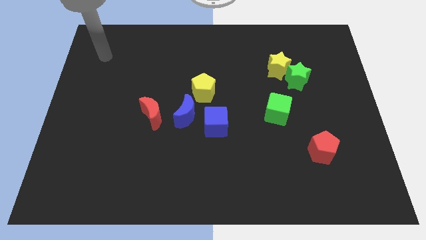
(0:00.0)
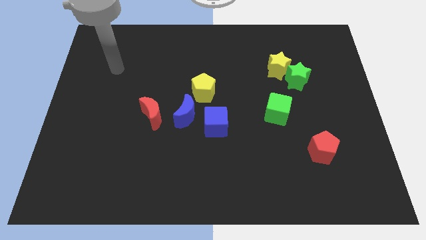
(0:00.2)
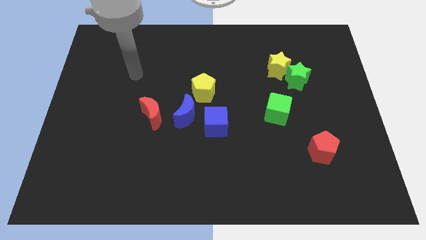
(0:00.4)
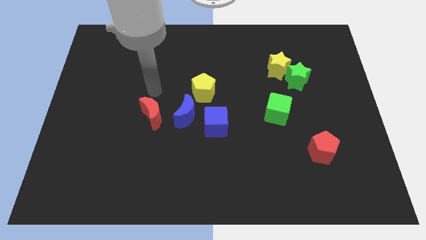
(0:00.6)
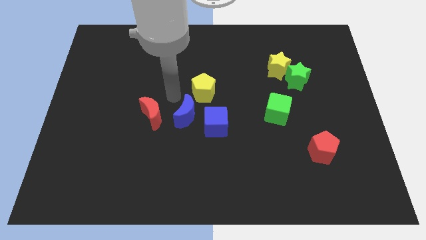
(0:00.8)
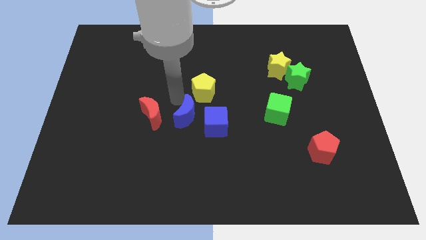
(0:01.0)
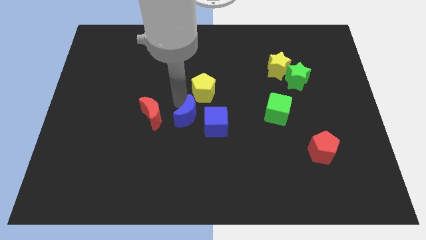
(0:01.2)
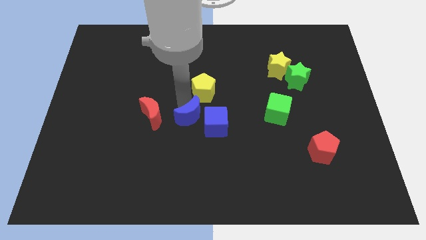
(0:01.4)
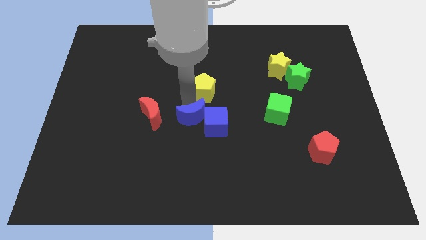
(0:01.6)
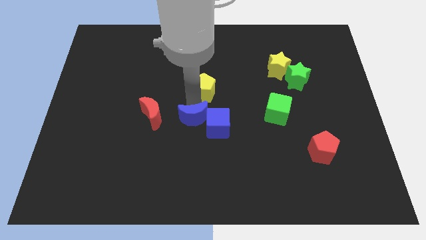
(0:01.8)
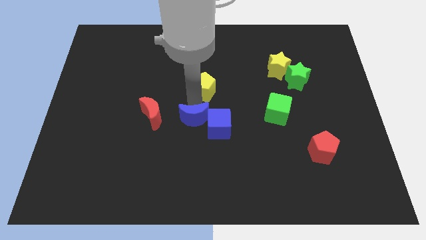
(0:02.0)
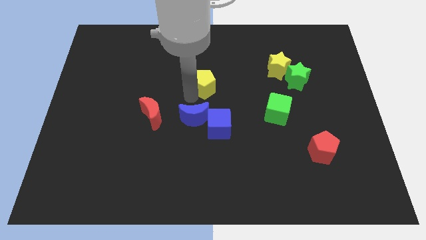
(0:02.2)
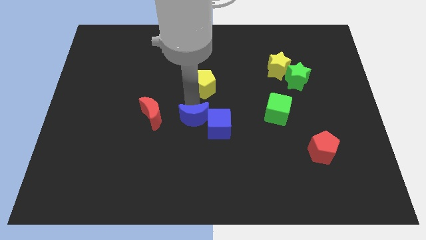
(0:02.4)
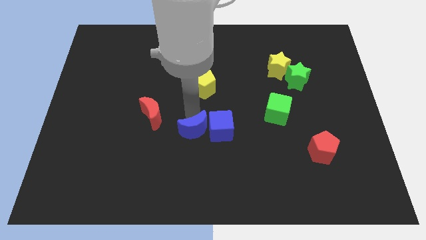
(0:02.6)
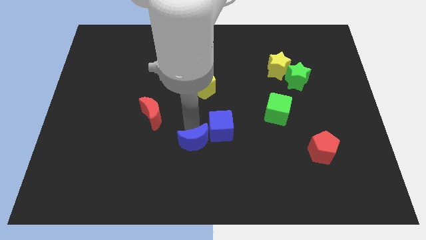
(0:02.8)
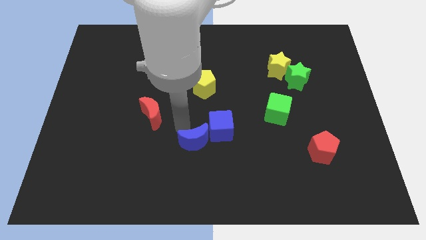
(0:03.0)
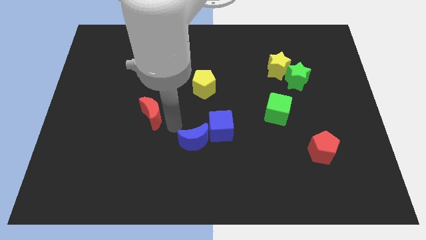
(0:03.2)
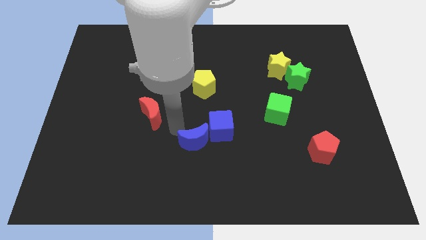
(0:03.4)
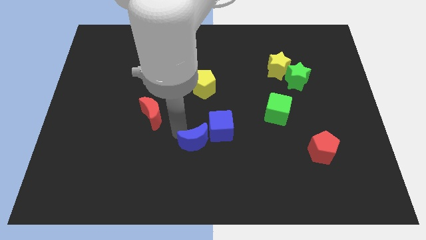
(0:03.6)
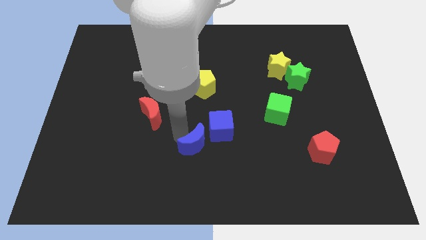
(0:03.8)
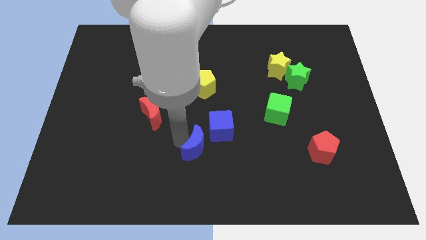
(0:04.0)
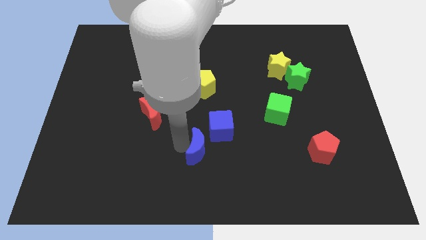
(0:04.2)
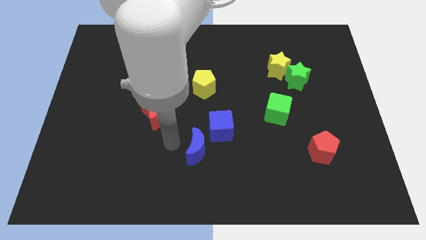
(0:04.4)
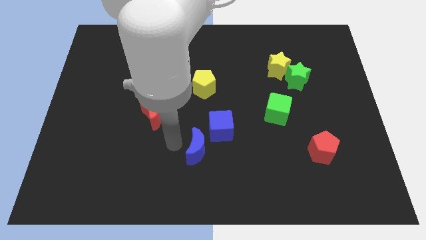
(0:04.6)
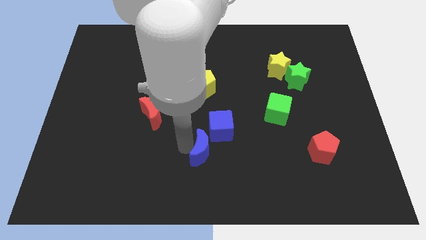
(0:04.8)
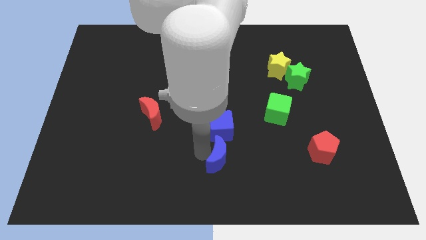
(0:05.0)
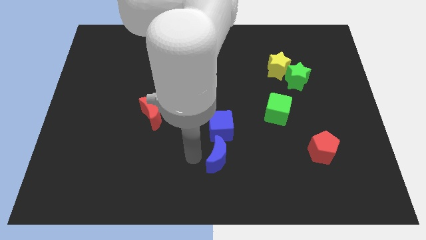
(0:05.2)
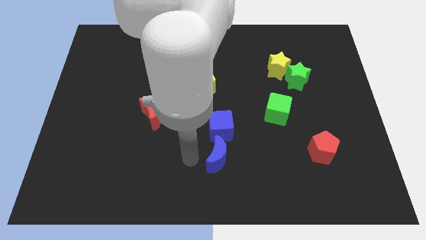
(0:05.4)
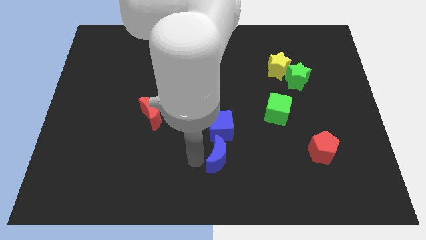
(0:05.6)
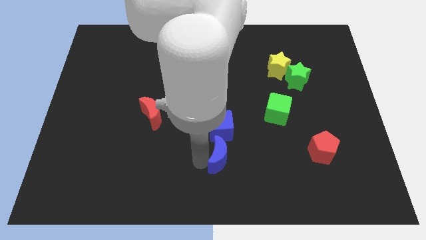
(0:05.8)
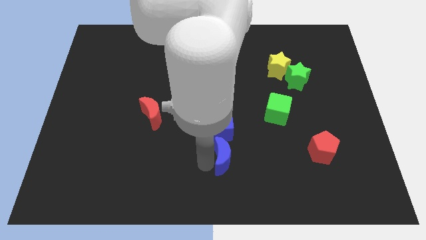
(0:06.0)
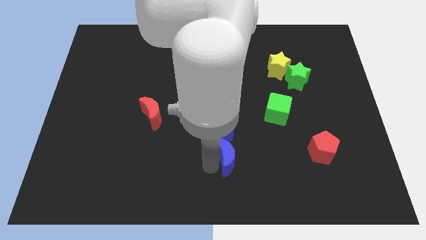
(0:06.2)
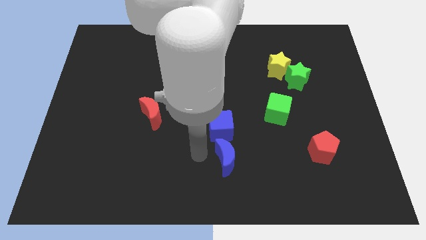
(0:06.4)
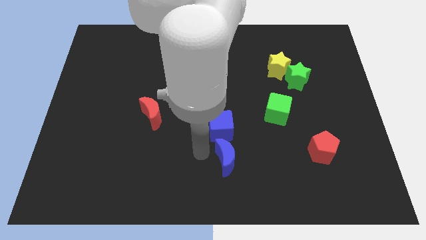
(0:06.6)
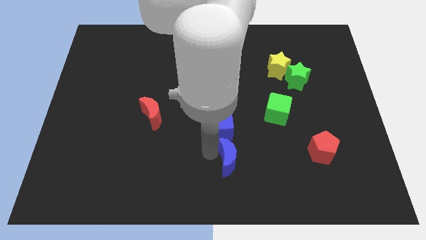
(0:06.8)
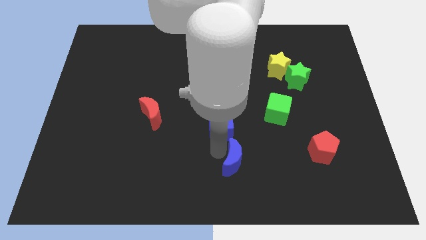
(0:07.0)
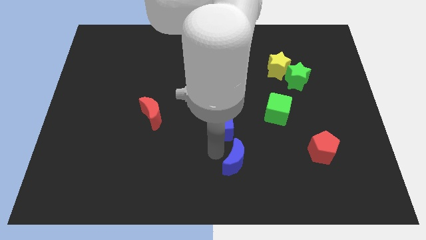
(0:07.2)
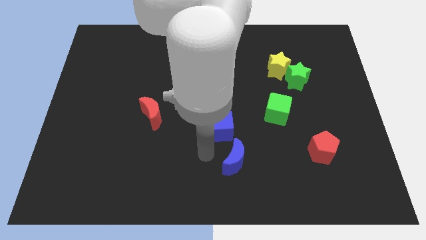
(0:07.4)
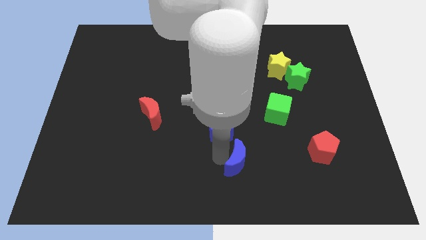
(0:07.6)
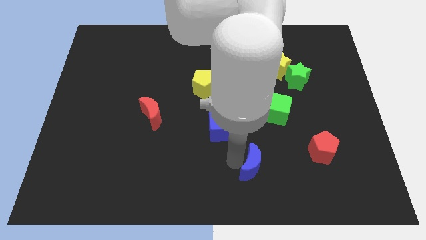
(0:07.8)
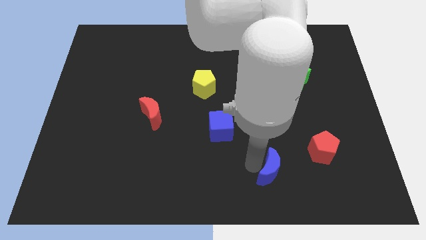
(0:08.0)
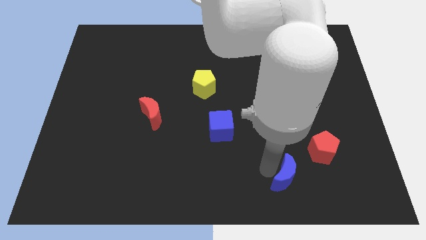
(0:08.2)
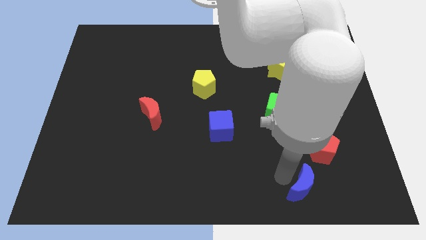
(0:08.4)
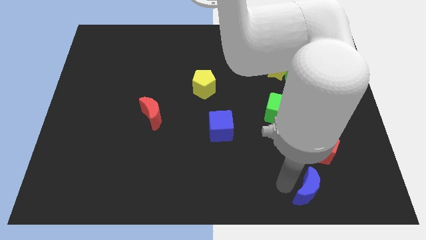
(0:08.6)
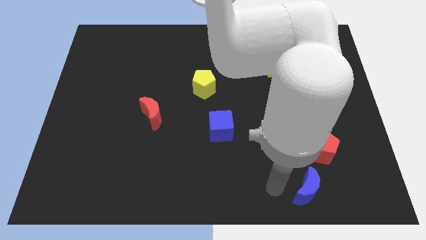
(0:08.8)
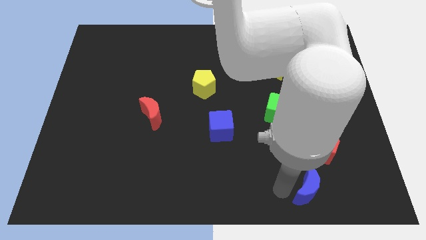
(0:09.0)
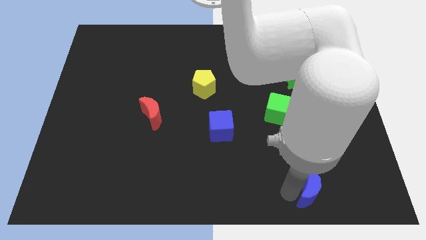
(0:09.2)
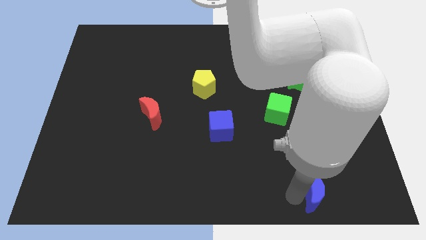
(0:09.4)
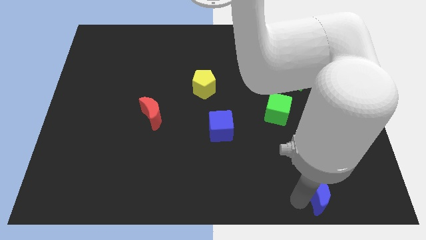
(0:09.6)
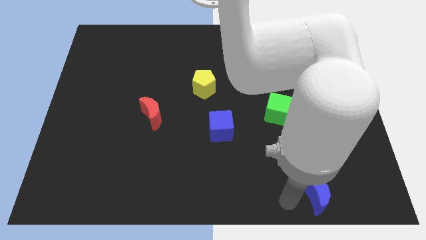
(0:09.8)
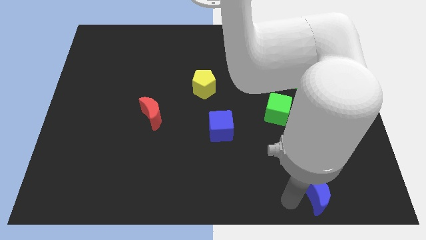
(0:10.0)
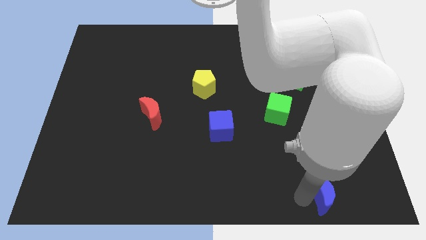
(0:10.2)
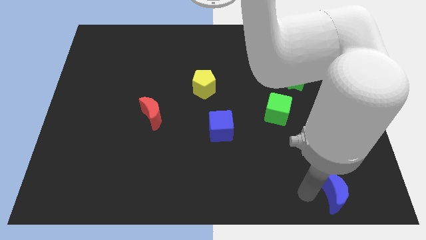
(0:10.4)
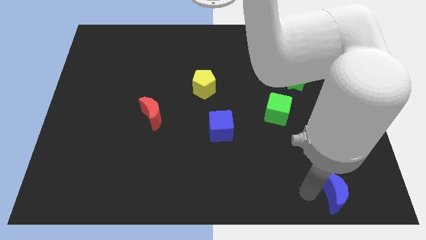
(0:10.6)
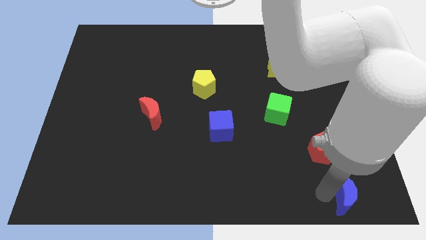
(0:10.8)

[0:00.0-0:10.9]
push the blue moon to the lower right corner
